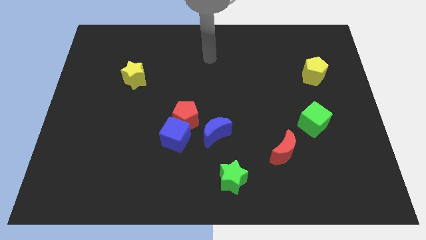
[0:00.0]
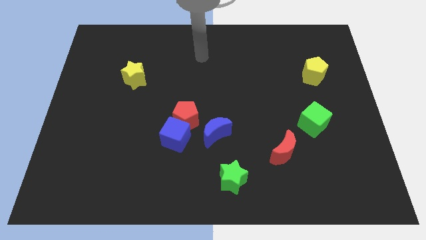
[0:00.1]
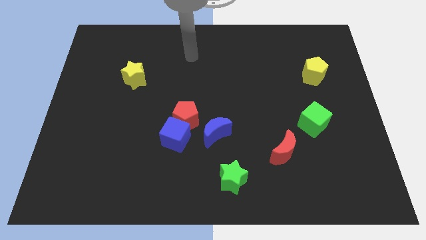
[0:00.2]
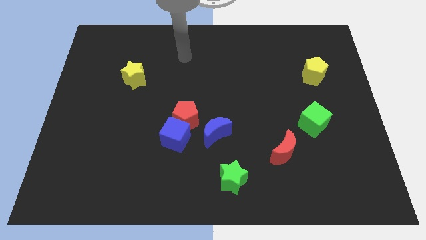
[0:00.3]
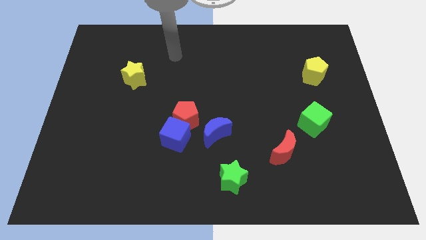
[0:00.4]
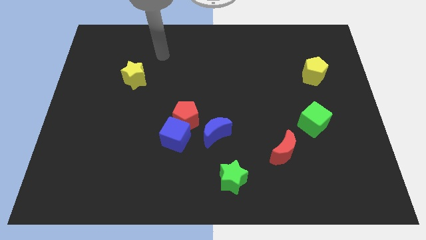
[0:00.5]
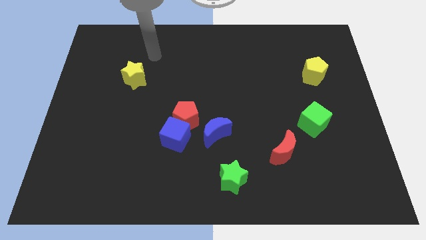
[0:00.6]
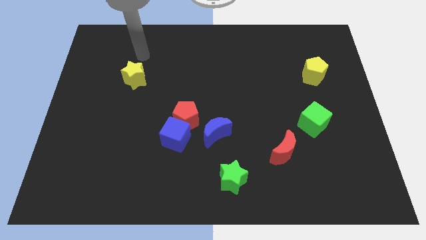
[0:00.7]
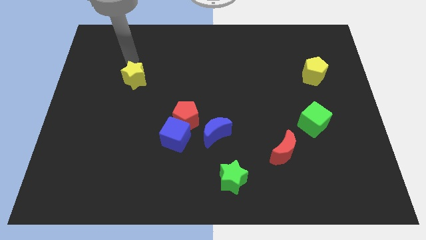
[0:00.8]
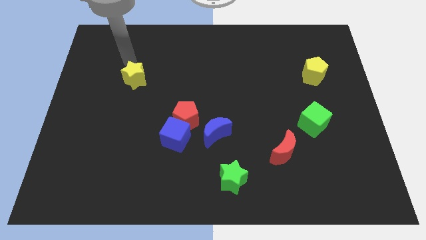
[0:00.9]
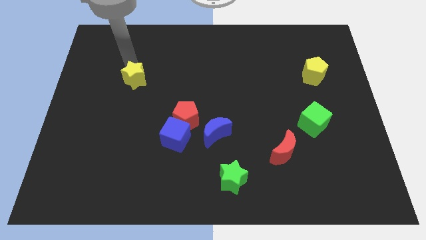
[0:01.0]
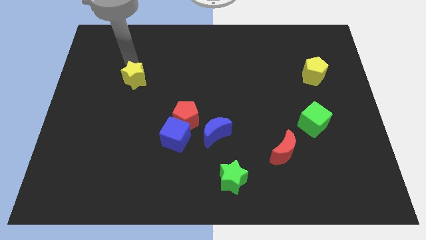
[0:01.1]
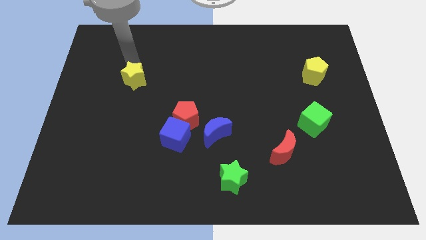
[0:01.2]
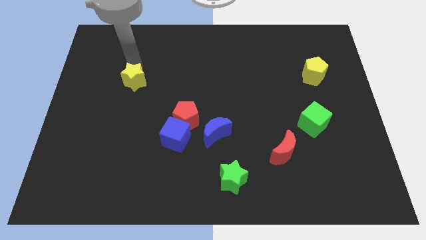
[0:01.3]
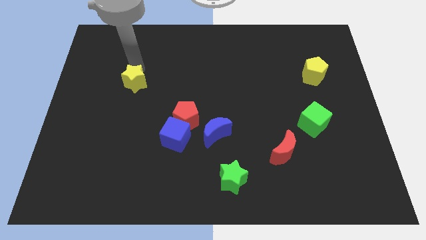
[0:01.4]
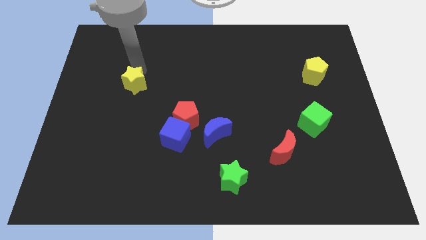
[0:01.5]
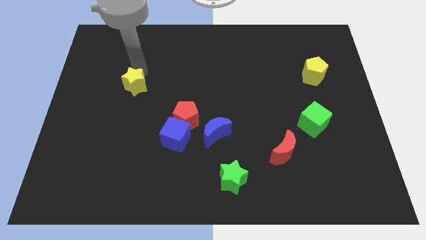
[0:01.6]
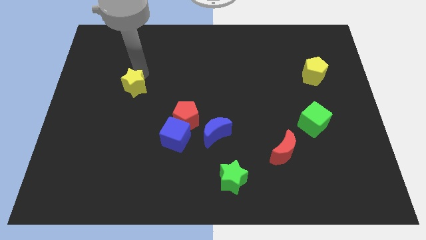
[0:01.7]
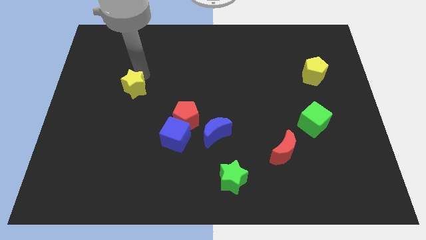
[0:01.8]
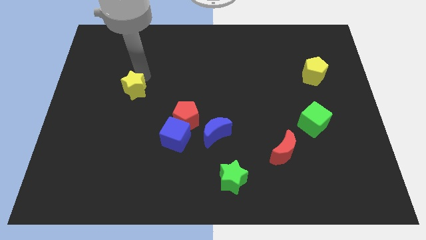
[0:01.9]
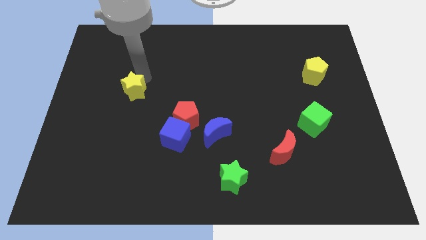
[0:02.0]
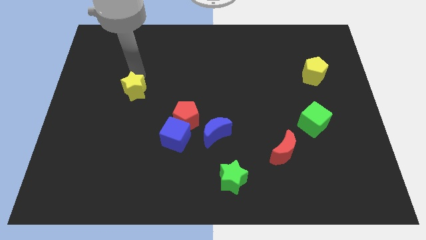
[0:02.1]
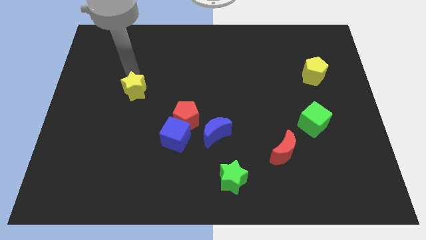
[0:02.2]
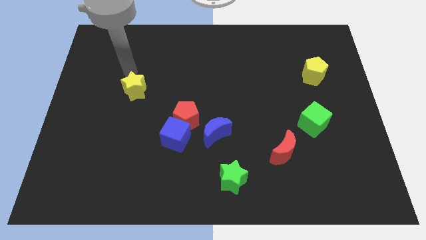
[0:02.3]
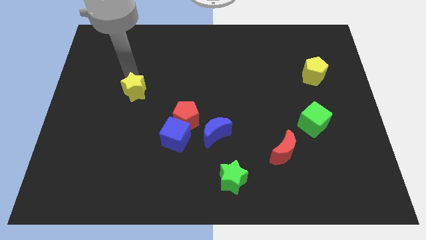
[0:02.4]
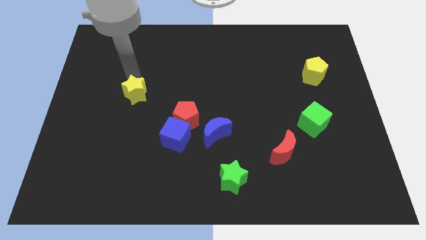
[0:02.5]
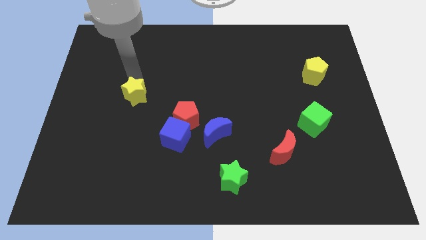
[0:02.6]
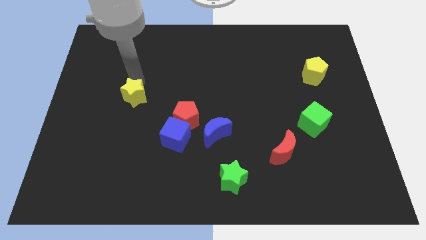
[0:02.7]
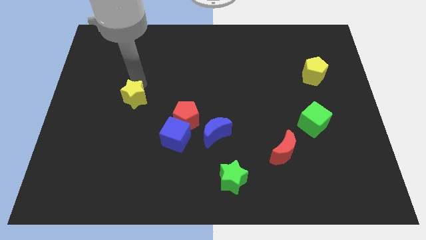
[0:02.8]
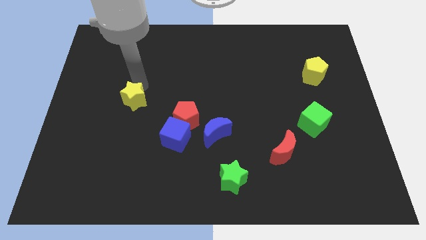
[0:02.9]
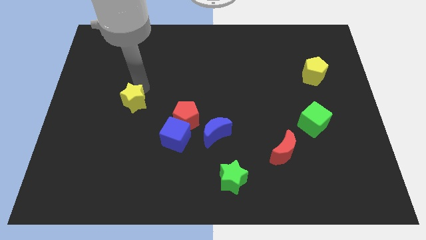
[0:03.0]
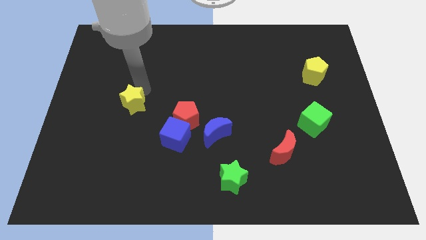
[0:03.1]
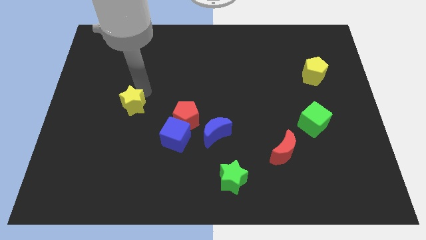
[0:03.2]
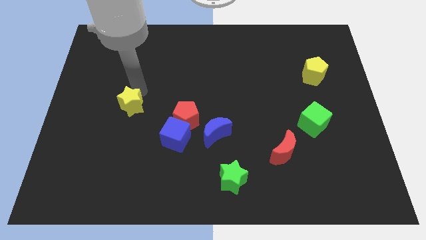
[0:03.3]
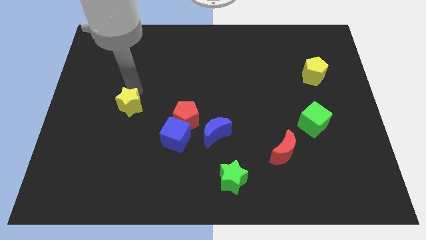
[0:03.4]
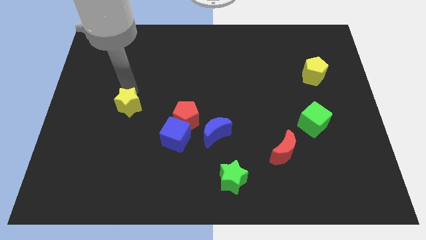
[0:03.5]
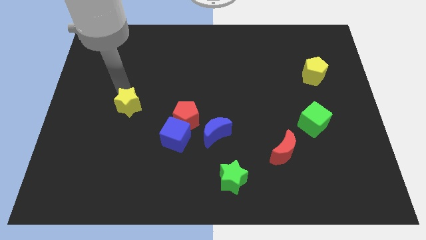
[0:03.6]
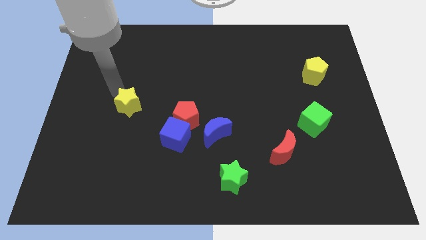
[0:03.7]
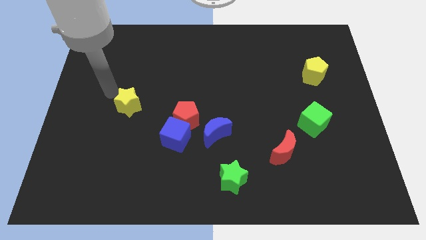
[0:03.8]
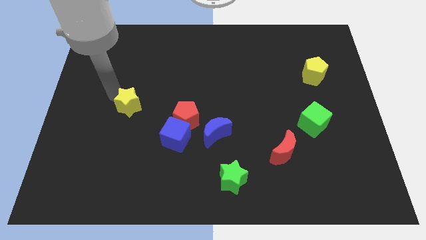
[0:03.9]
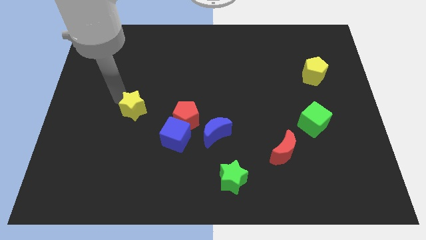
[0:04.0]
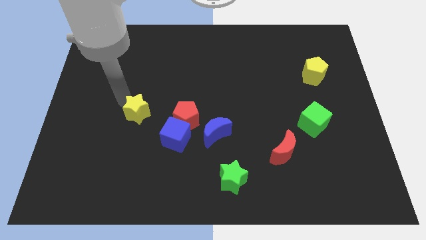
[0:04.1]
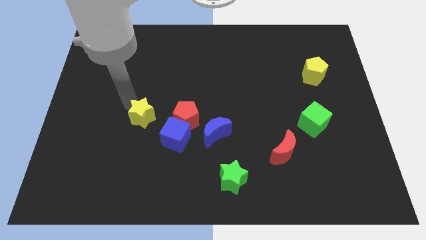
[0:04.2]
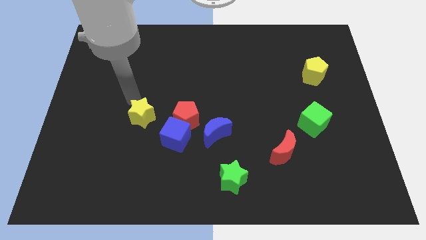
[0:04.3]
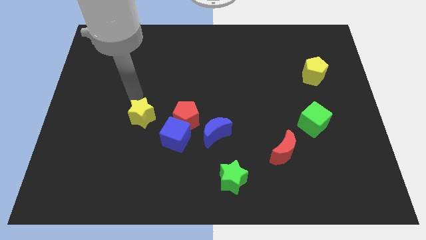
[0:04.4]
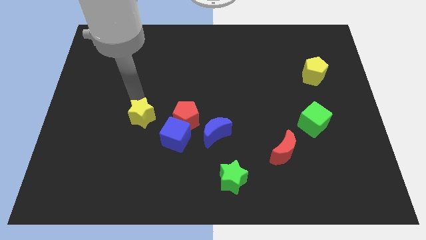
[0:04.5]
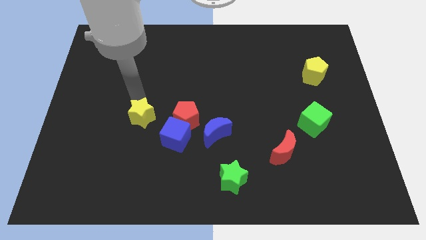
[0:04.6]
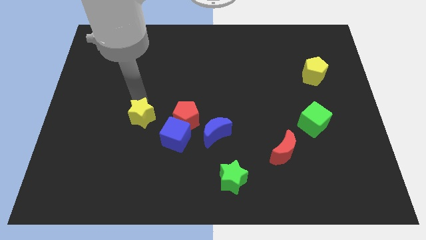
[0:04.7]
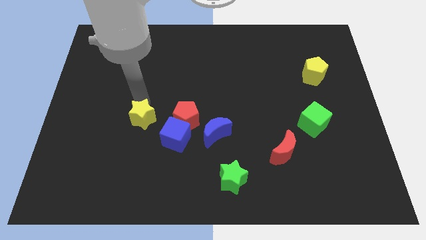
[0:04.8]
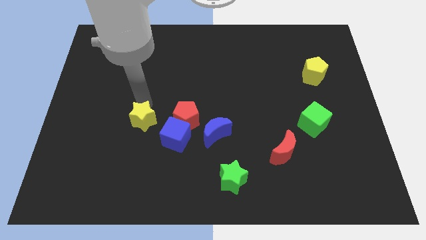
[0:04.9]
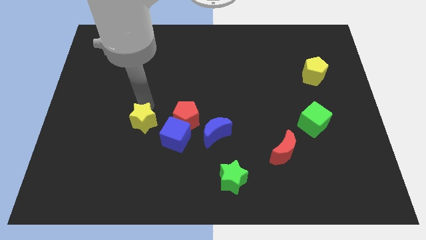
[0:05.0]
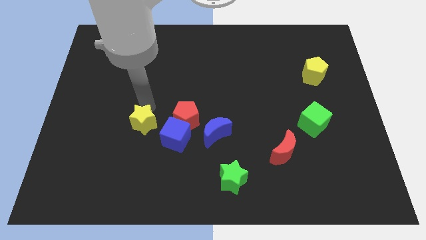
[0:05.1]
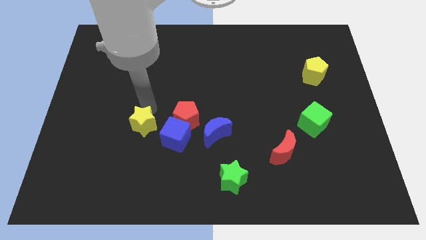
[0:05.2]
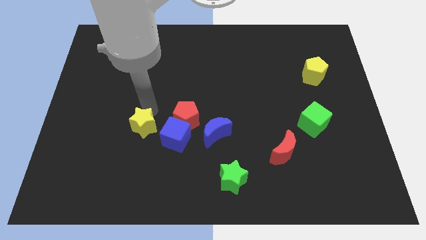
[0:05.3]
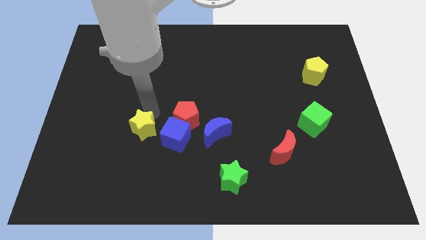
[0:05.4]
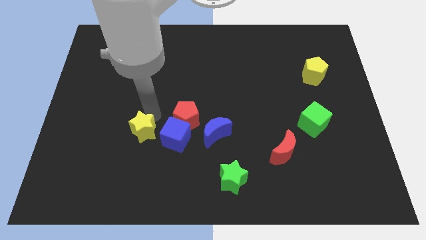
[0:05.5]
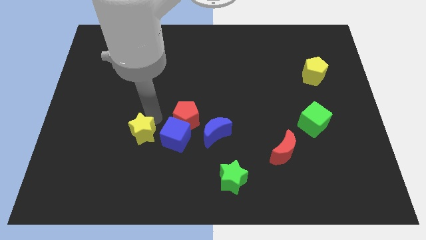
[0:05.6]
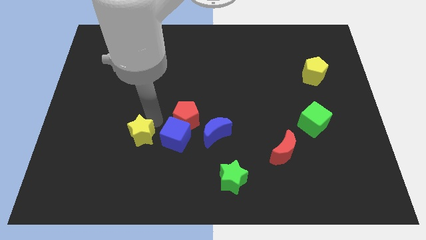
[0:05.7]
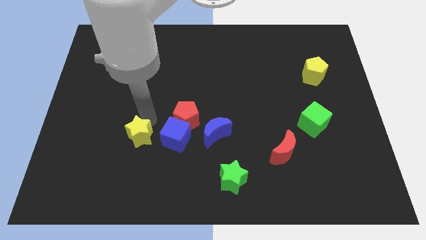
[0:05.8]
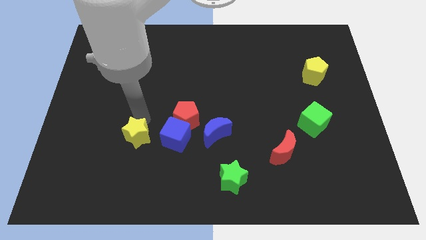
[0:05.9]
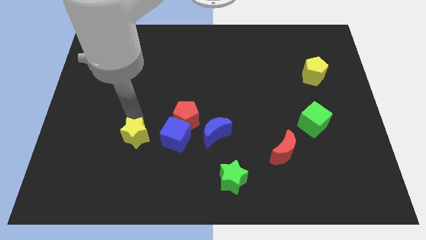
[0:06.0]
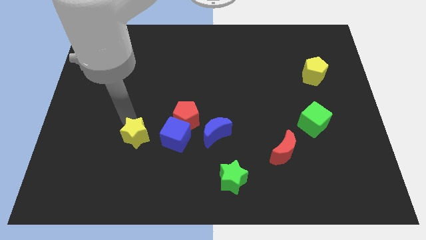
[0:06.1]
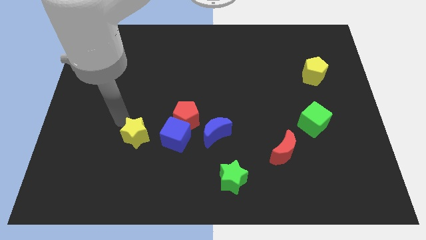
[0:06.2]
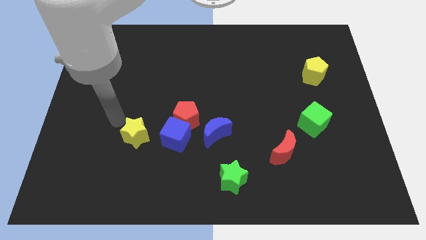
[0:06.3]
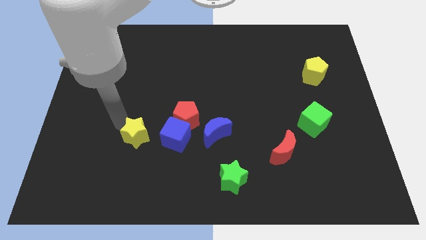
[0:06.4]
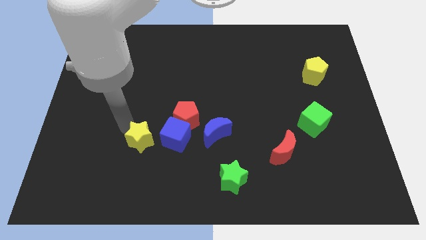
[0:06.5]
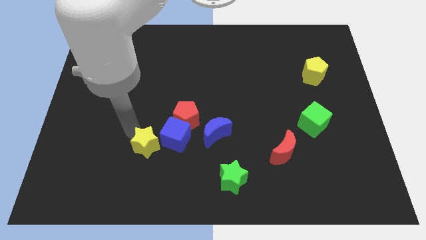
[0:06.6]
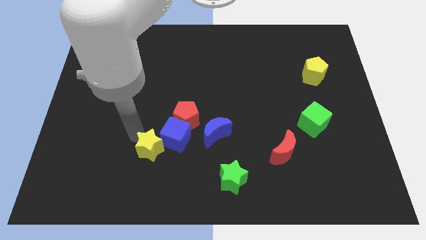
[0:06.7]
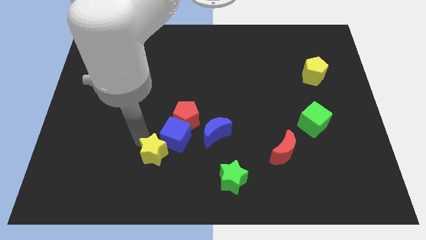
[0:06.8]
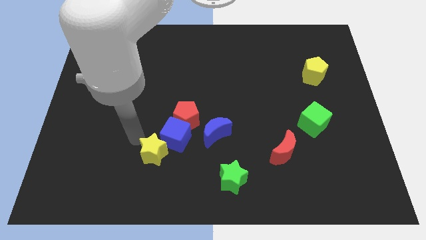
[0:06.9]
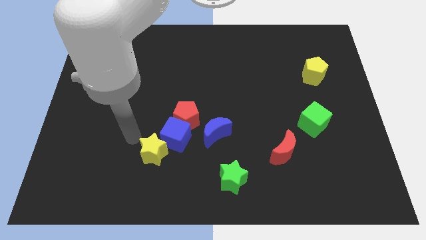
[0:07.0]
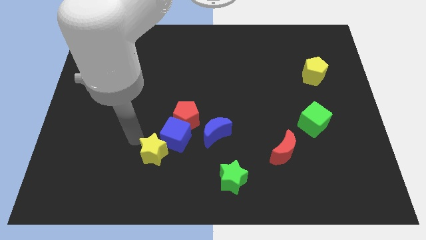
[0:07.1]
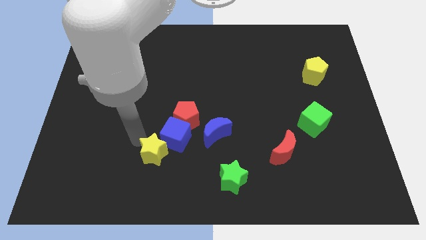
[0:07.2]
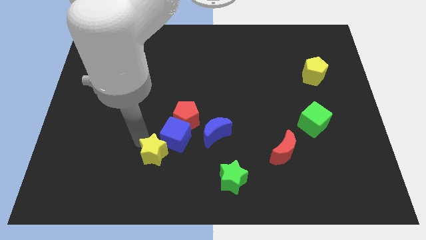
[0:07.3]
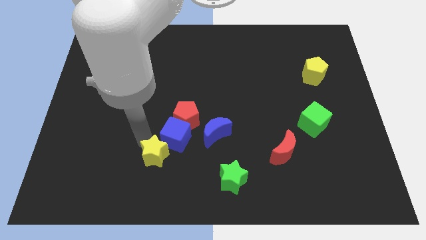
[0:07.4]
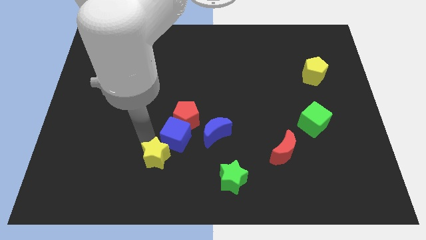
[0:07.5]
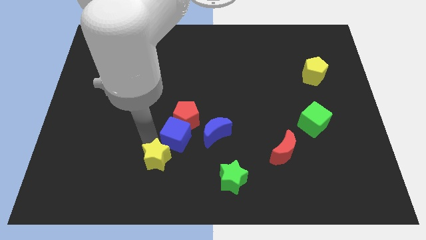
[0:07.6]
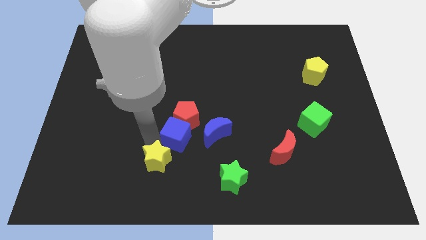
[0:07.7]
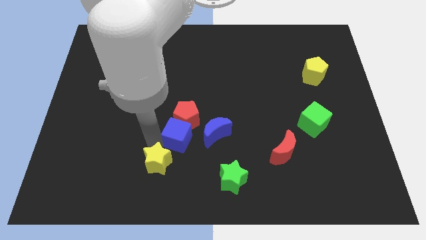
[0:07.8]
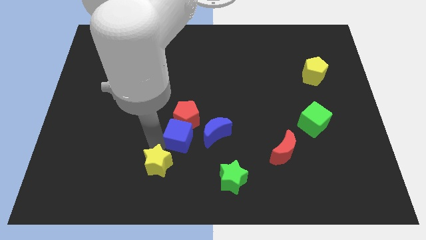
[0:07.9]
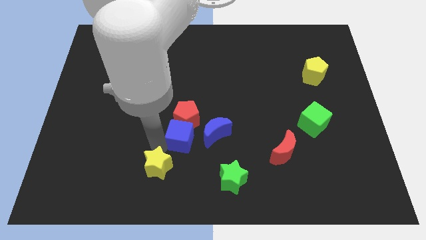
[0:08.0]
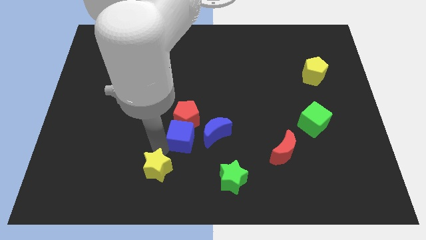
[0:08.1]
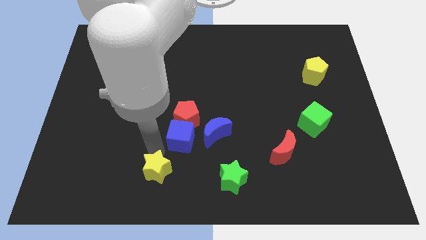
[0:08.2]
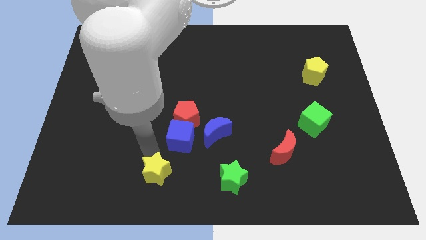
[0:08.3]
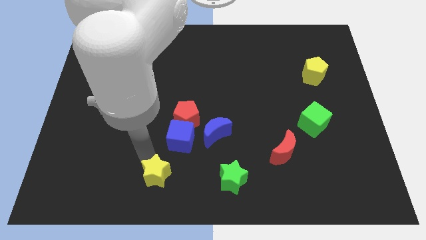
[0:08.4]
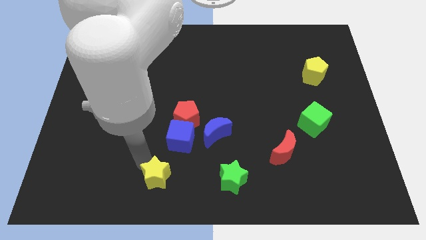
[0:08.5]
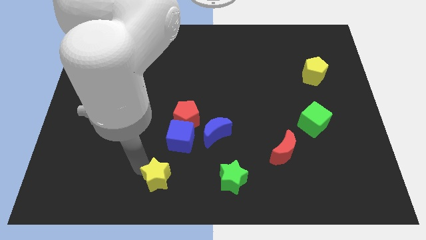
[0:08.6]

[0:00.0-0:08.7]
slide the yellow star to the bottom
